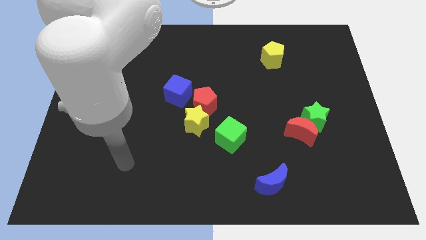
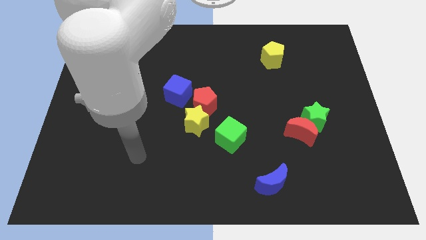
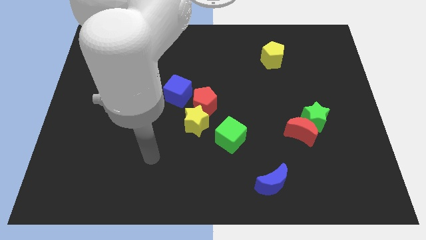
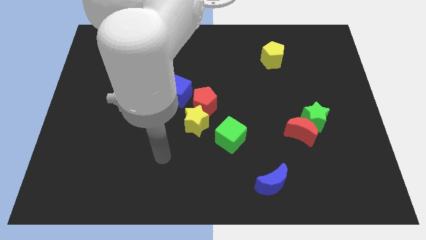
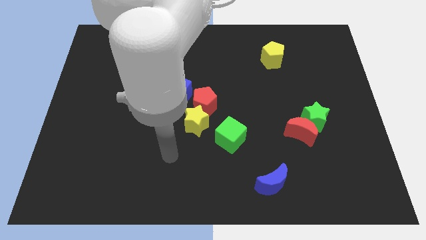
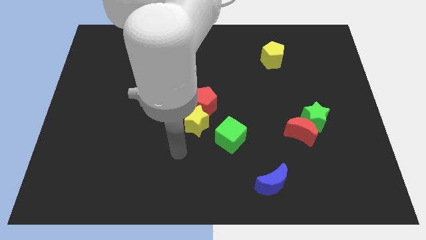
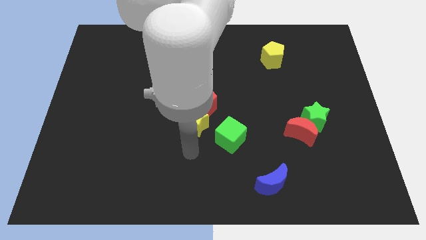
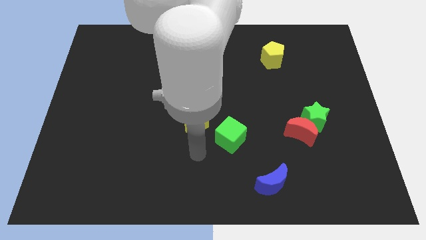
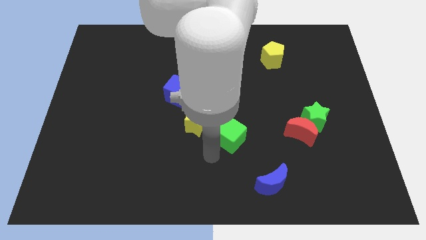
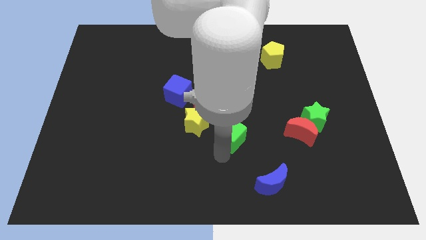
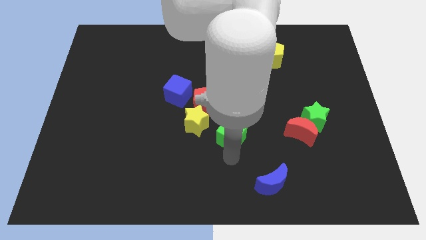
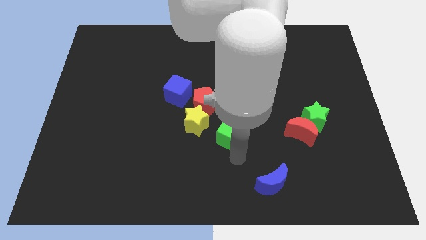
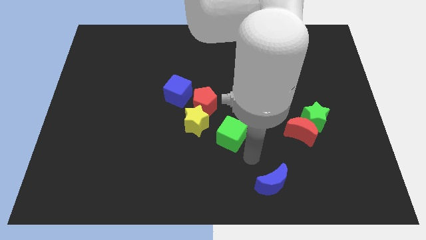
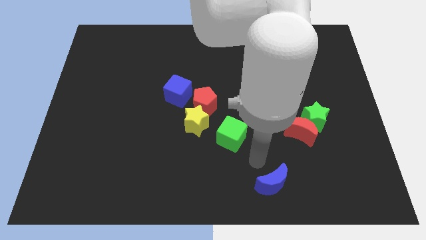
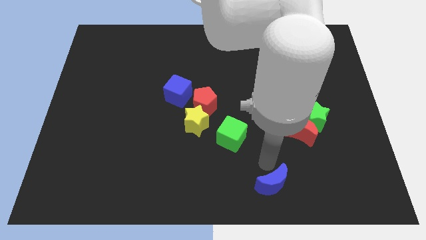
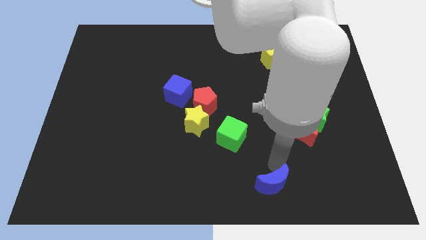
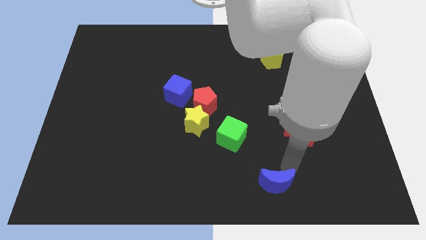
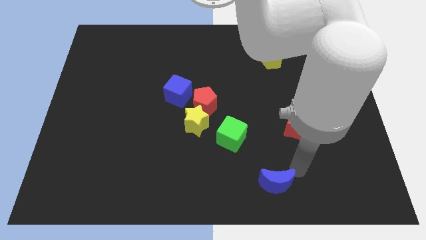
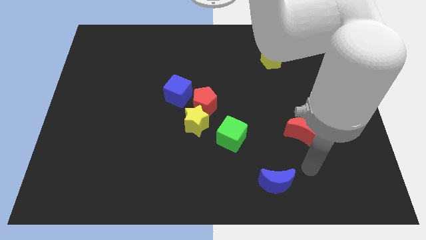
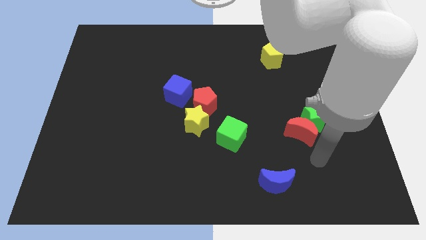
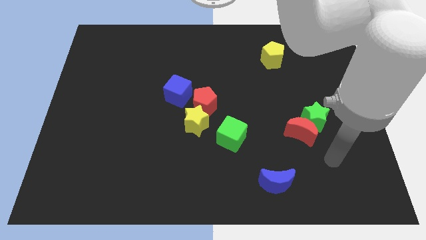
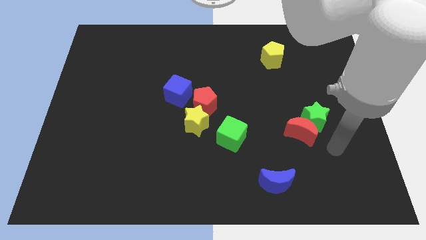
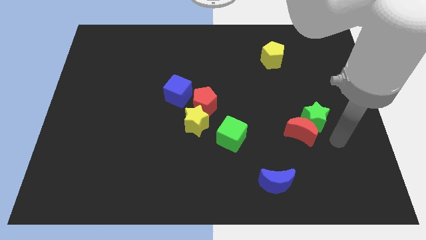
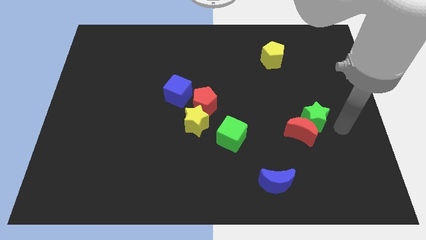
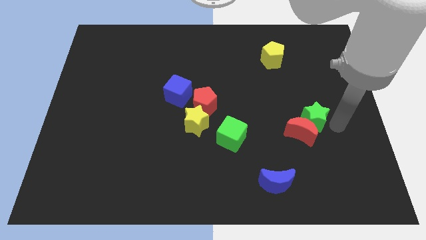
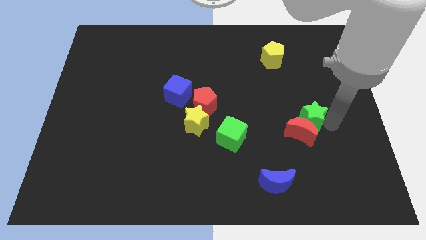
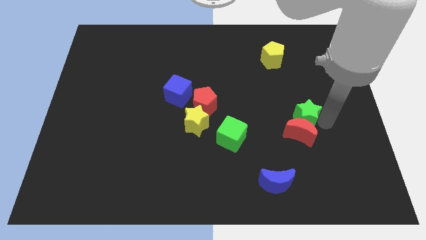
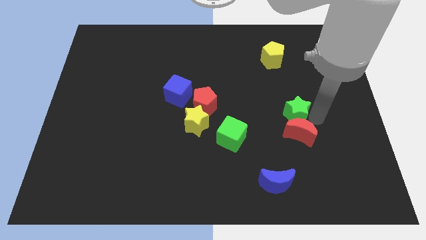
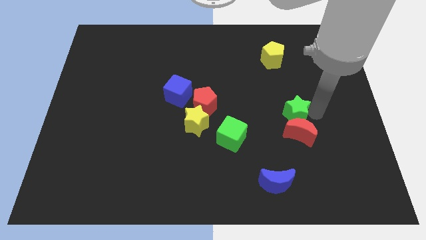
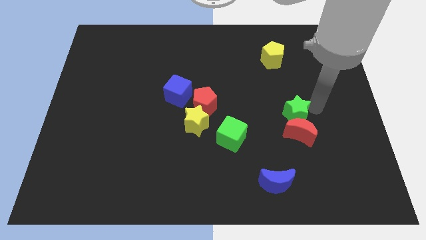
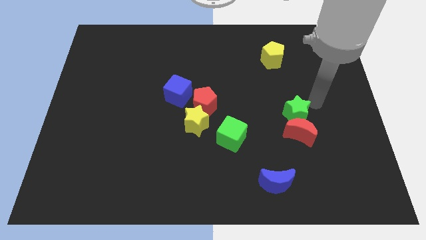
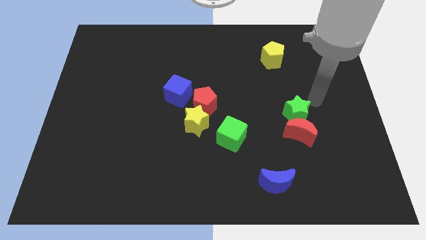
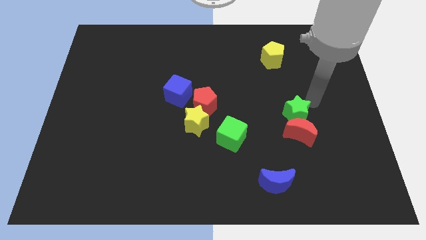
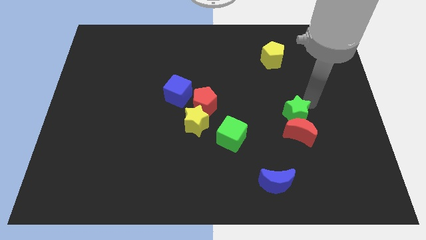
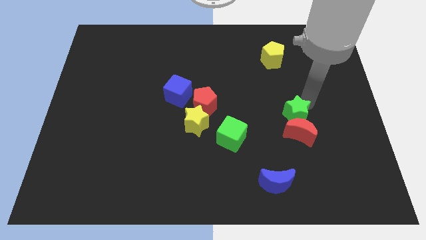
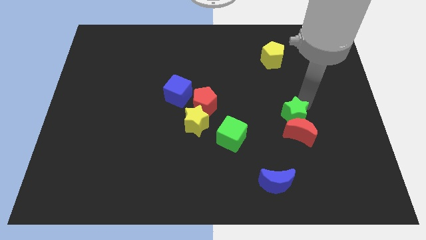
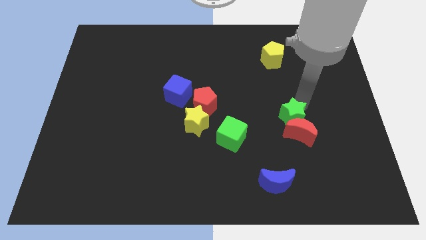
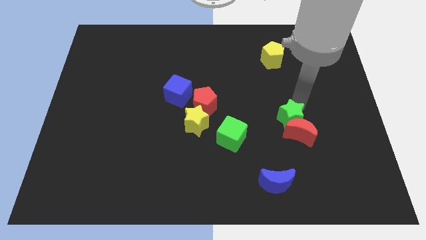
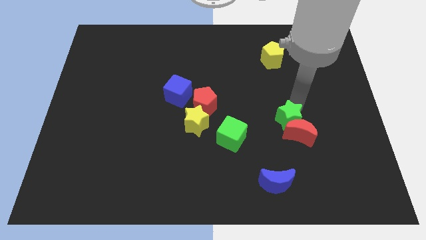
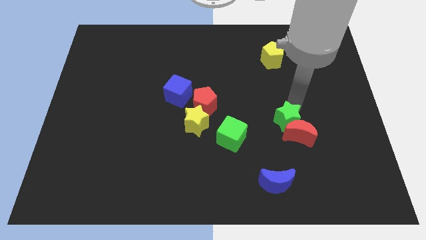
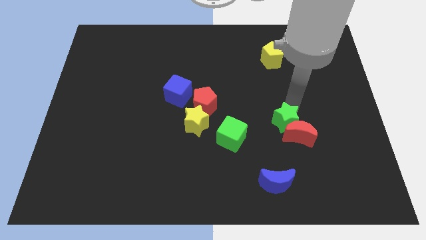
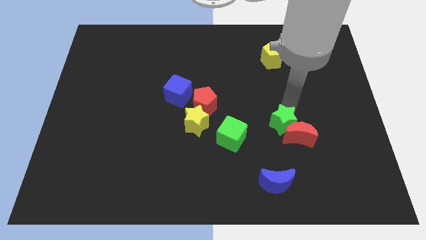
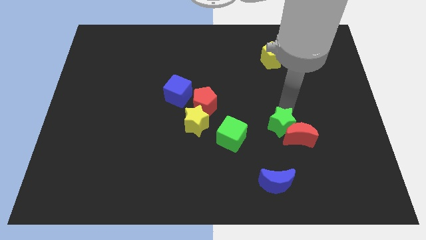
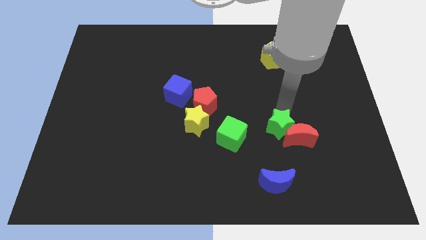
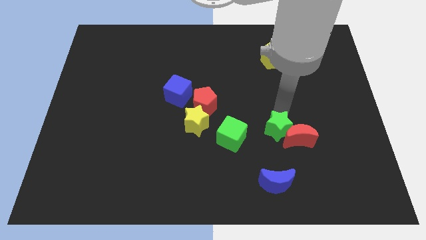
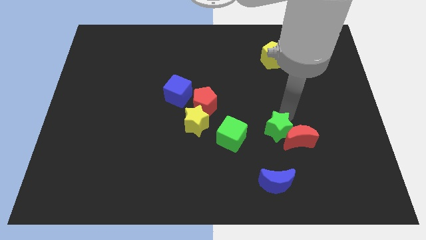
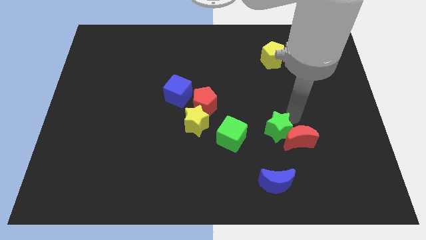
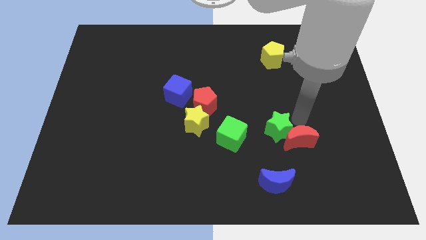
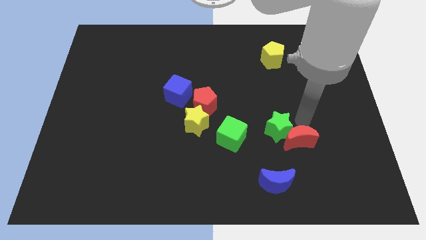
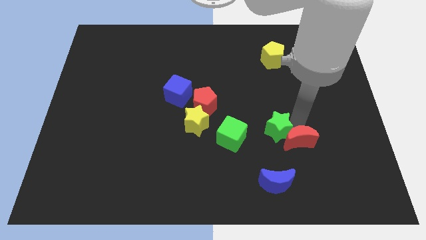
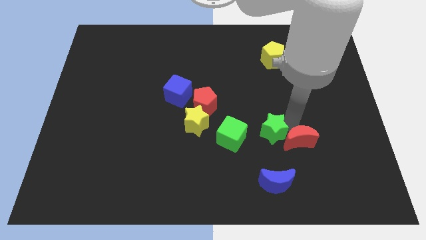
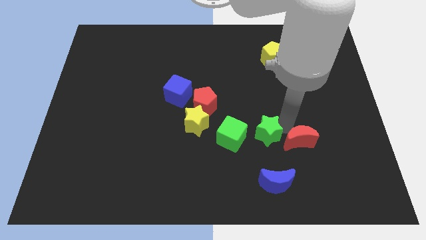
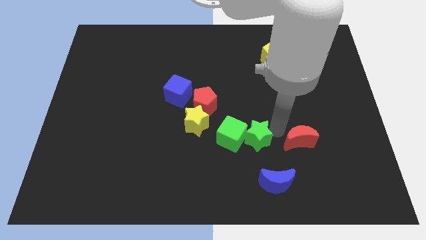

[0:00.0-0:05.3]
push the green star next to the green cube

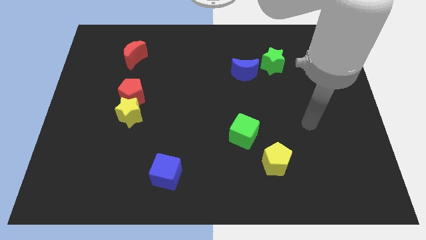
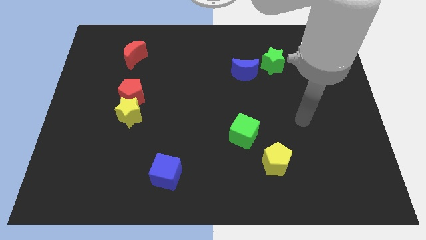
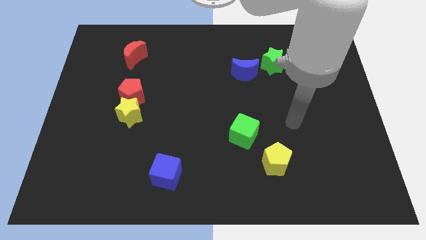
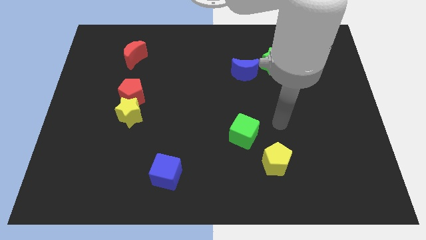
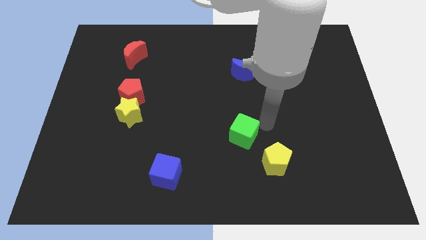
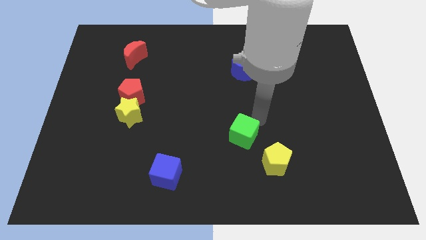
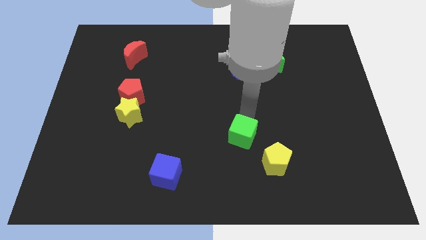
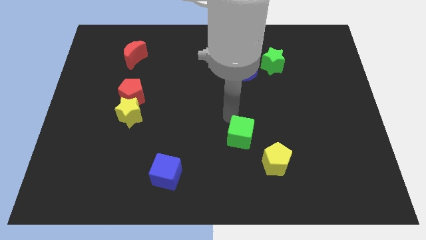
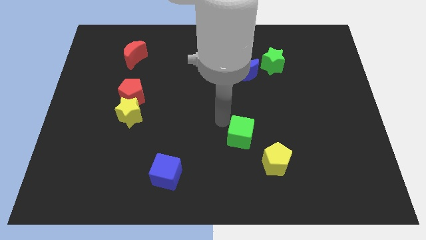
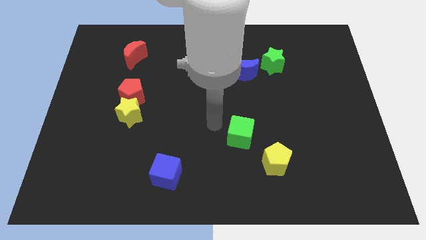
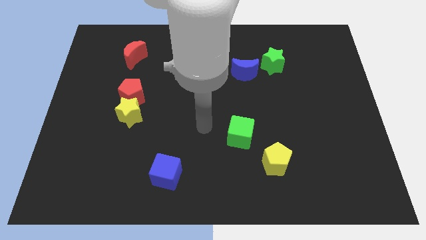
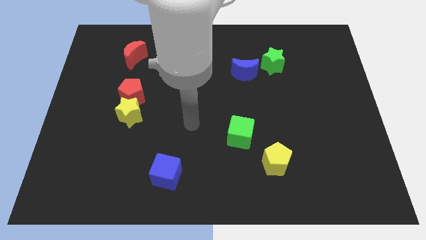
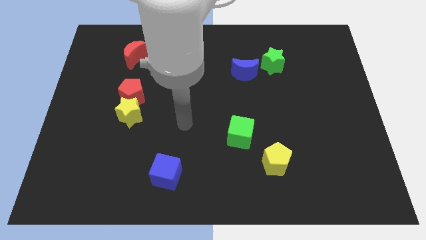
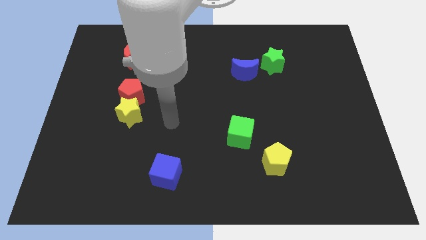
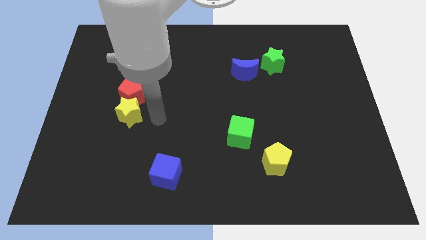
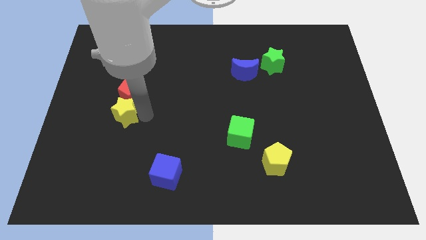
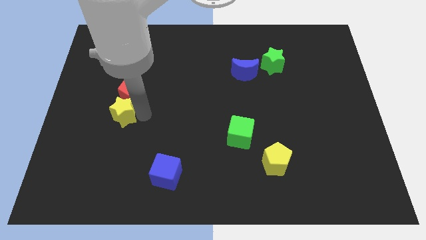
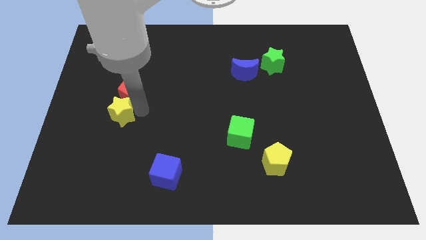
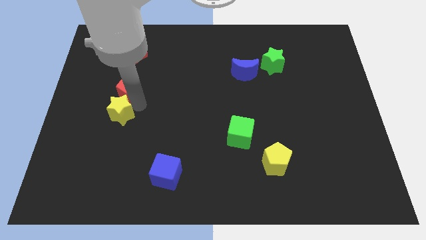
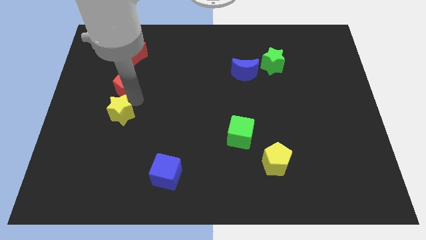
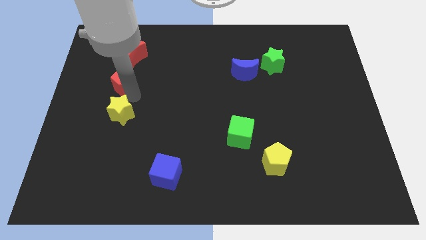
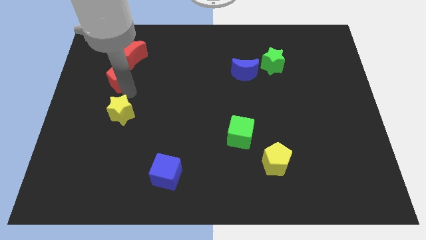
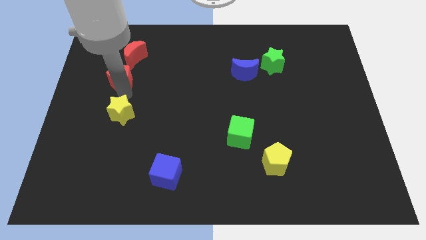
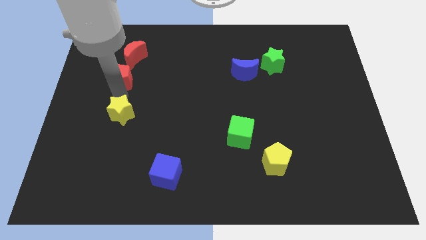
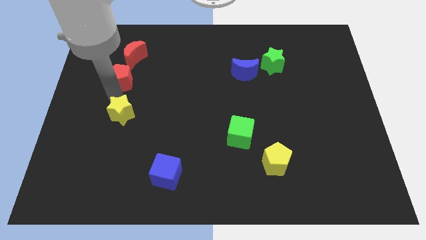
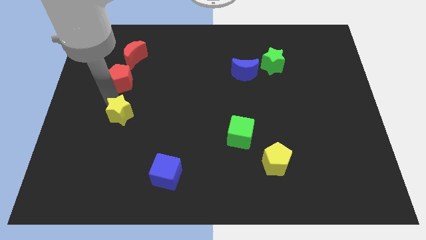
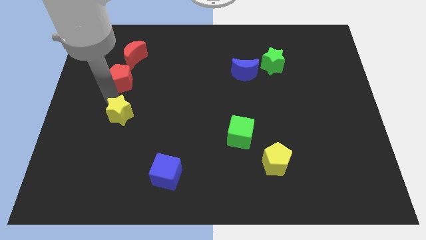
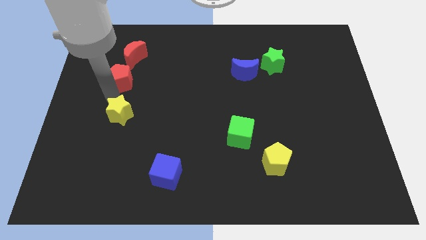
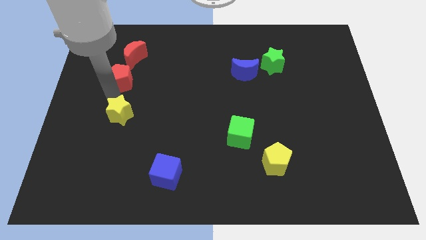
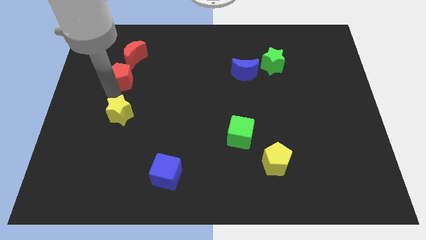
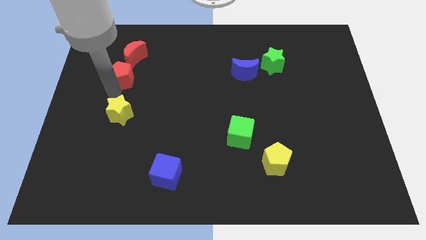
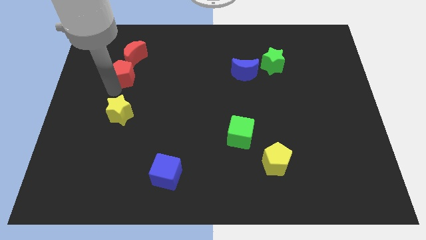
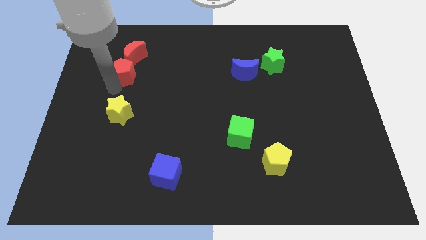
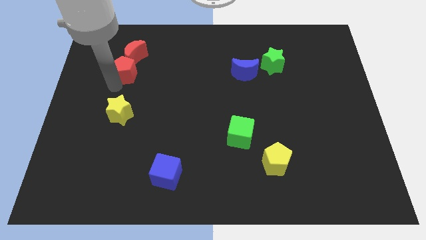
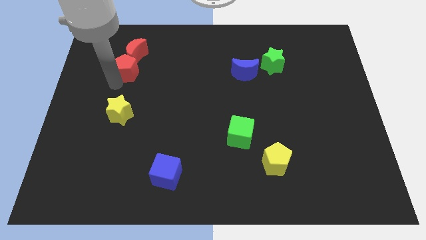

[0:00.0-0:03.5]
put the red pentagon close to the red moon
